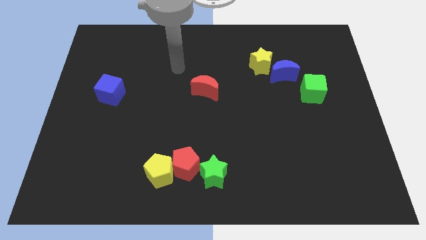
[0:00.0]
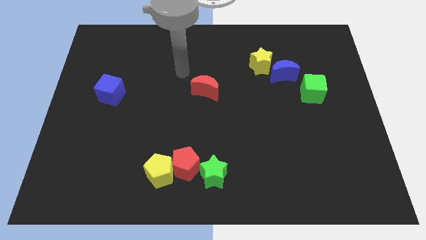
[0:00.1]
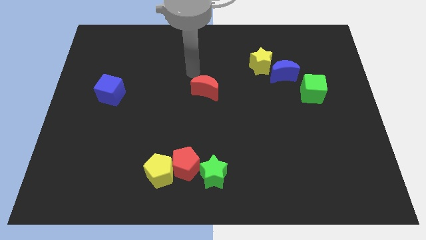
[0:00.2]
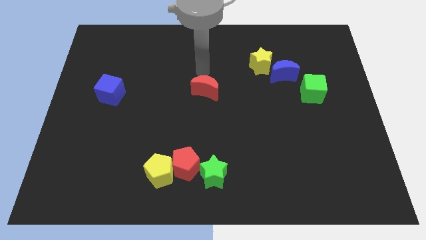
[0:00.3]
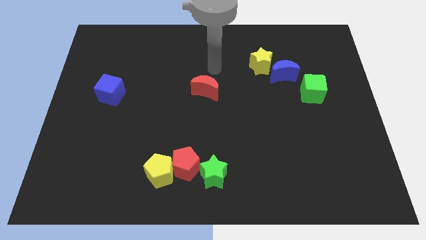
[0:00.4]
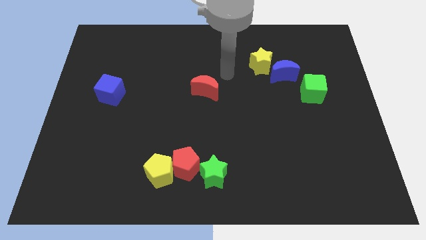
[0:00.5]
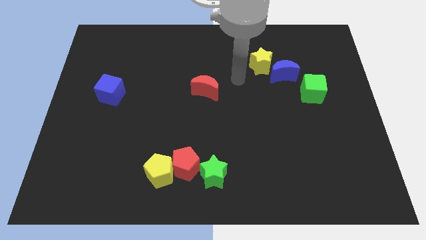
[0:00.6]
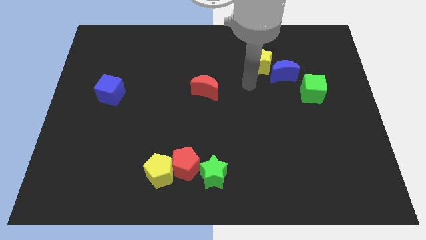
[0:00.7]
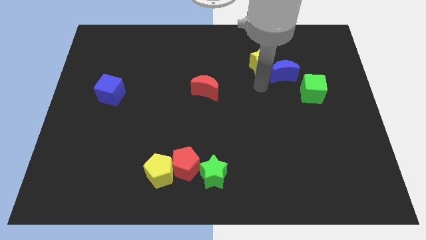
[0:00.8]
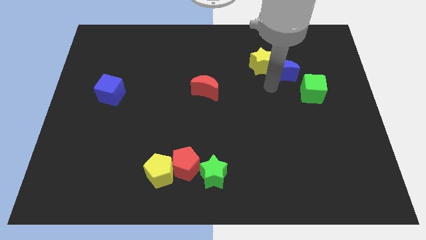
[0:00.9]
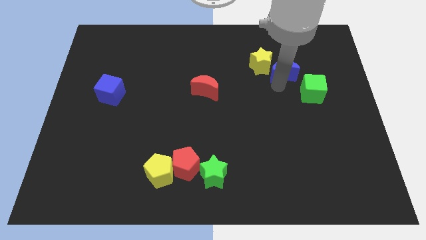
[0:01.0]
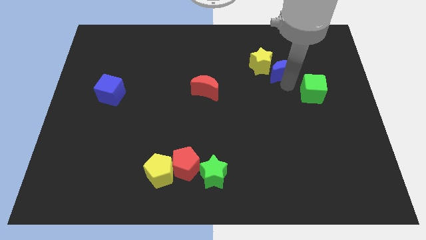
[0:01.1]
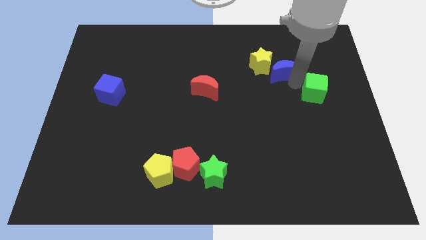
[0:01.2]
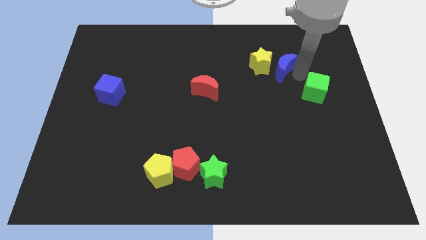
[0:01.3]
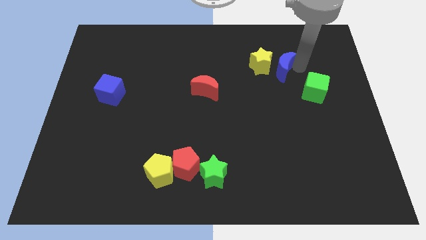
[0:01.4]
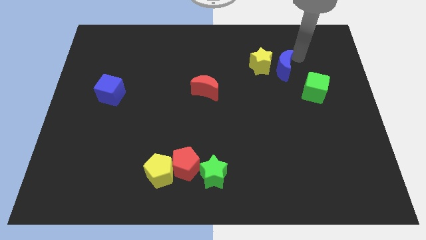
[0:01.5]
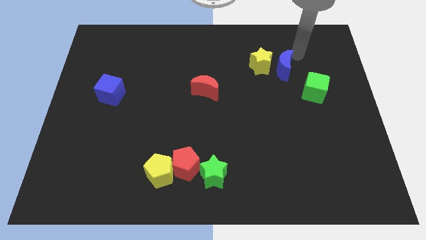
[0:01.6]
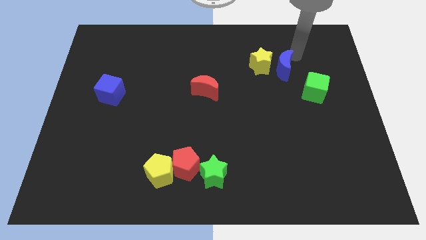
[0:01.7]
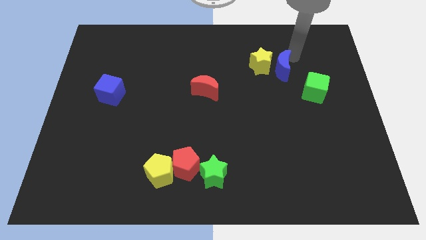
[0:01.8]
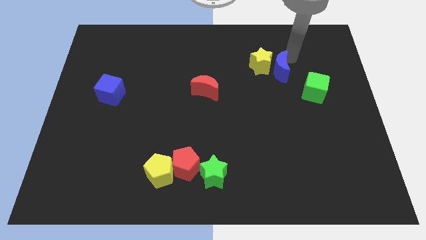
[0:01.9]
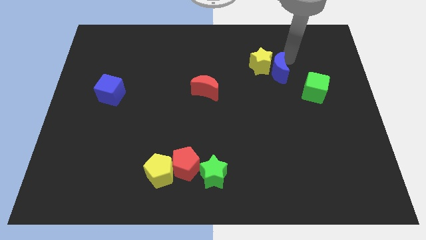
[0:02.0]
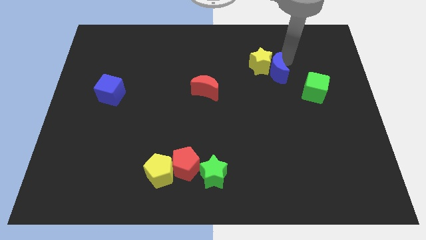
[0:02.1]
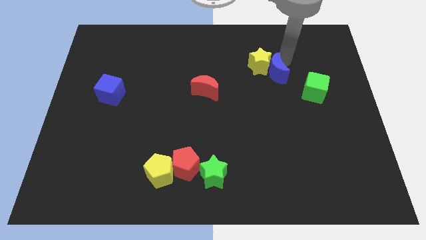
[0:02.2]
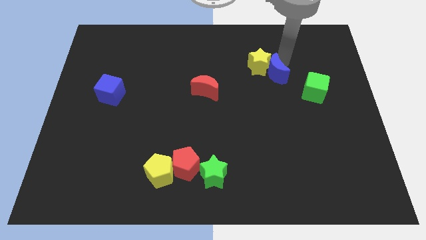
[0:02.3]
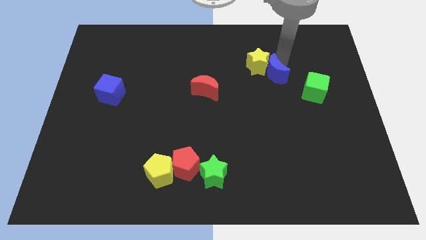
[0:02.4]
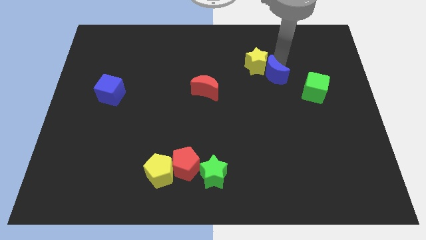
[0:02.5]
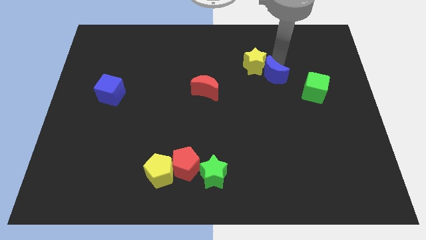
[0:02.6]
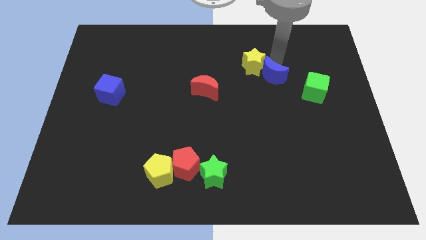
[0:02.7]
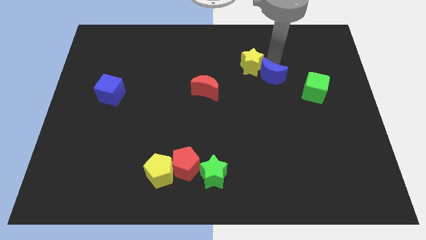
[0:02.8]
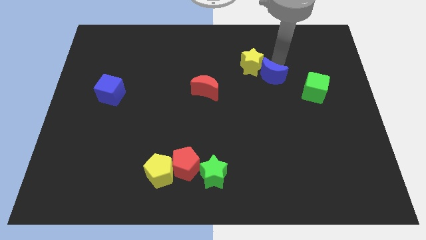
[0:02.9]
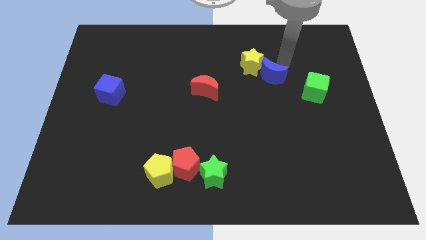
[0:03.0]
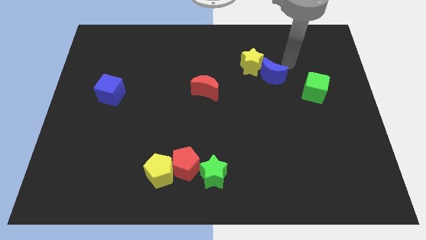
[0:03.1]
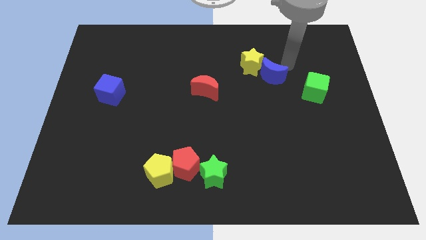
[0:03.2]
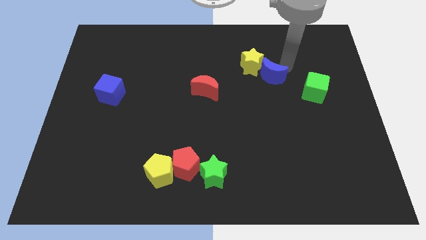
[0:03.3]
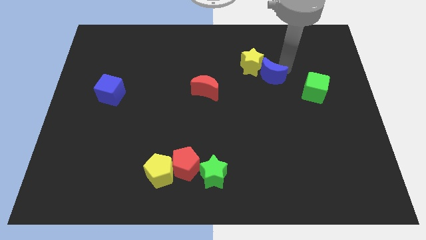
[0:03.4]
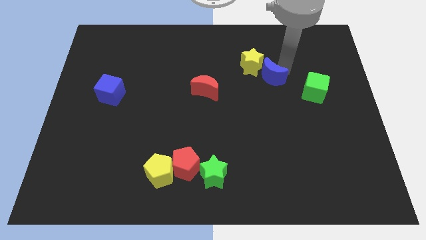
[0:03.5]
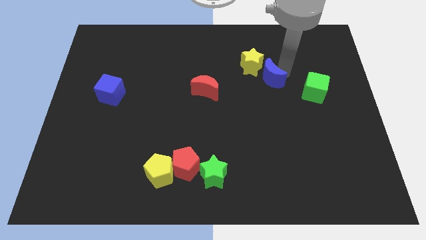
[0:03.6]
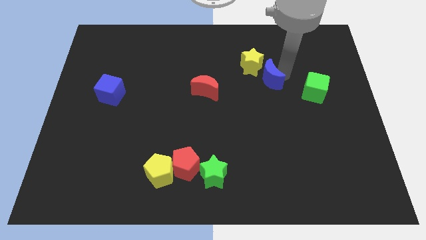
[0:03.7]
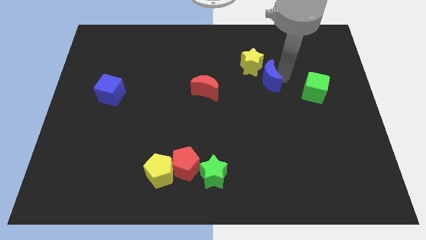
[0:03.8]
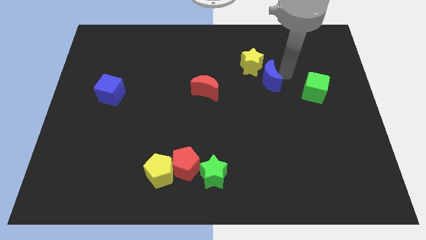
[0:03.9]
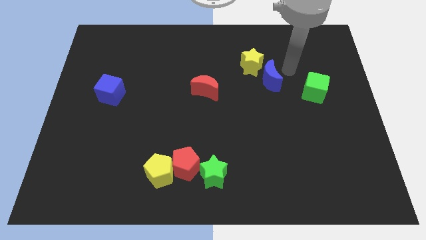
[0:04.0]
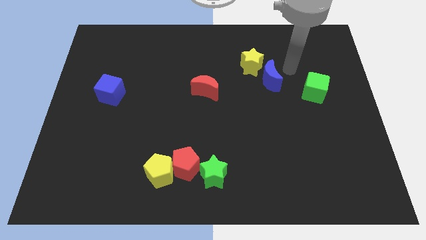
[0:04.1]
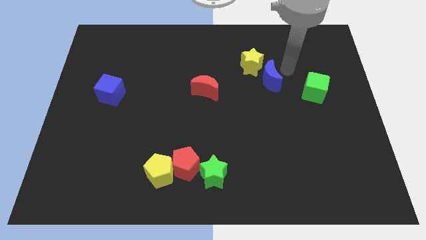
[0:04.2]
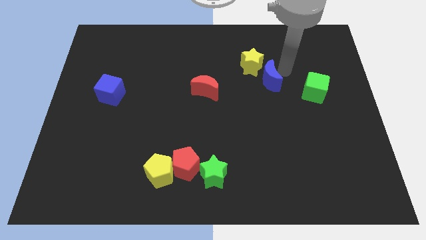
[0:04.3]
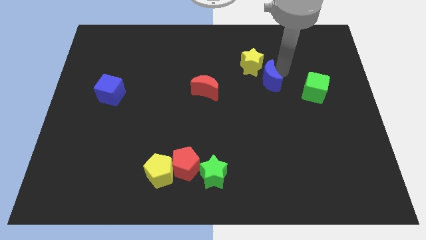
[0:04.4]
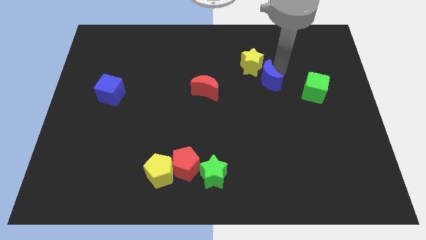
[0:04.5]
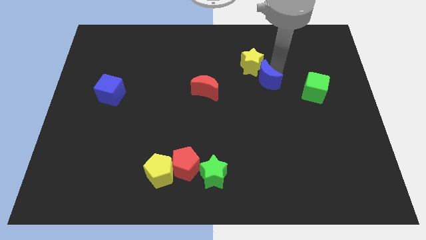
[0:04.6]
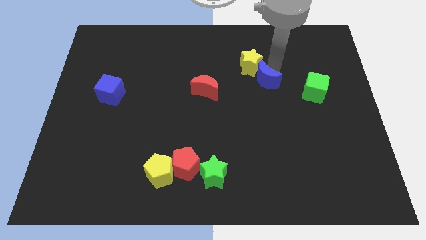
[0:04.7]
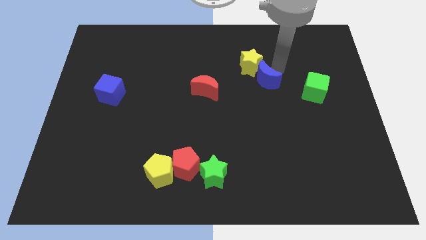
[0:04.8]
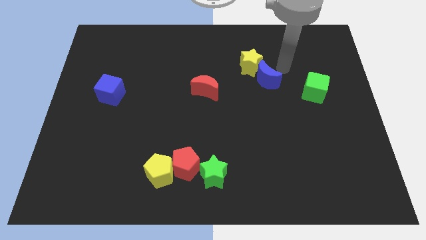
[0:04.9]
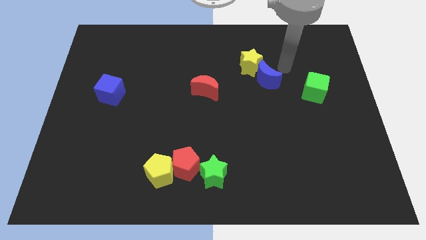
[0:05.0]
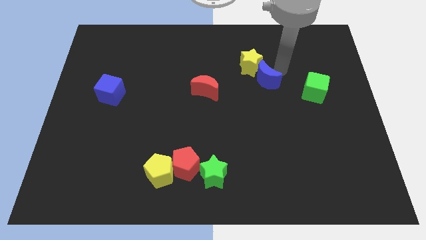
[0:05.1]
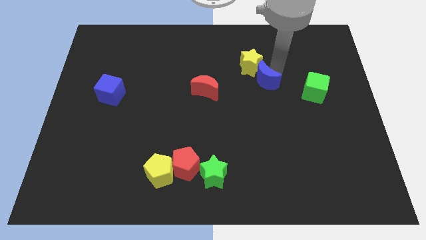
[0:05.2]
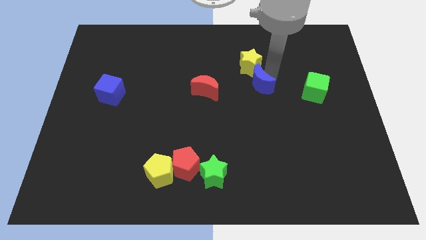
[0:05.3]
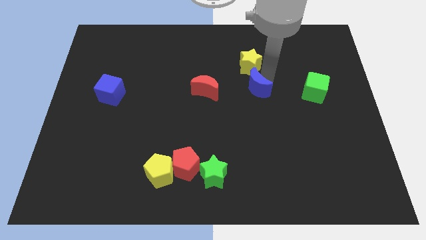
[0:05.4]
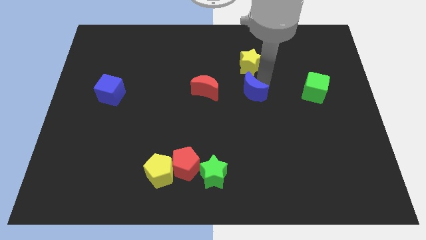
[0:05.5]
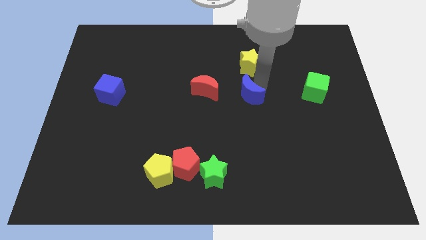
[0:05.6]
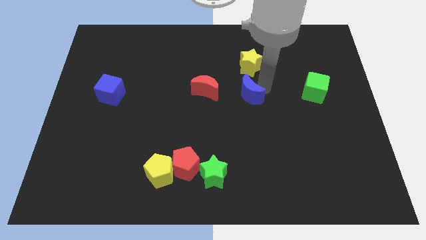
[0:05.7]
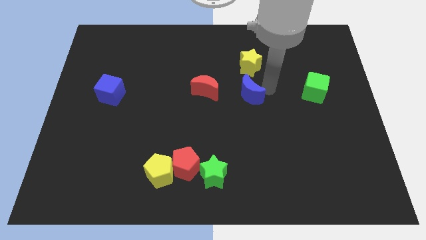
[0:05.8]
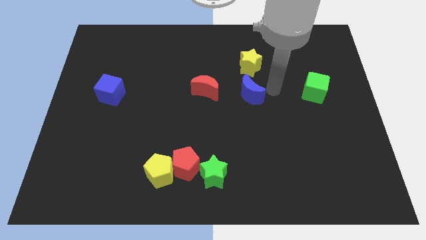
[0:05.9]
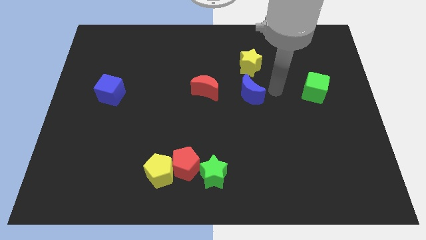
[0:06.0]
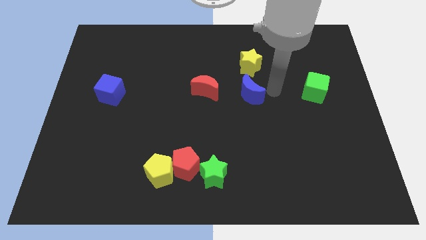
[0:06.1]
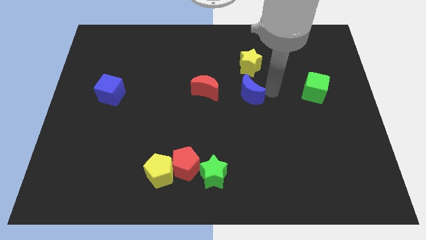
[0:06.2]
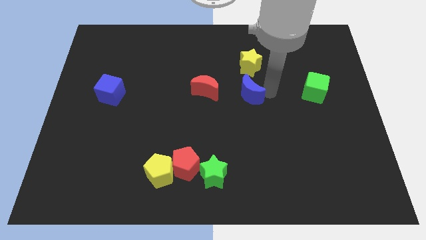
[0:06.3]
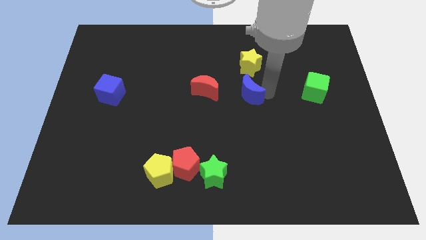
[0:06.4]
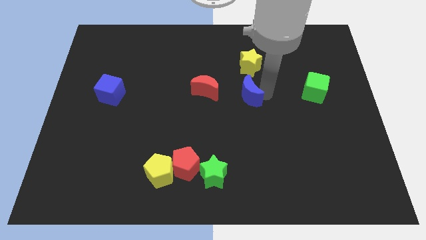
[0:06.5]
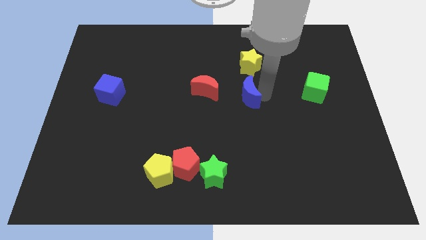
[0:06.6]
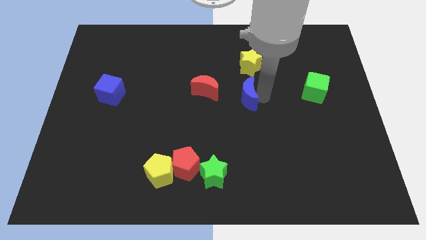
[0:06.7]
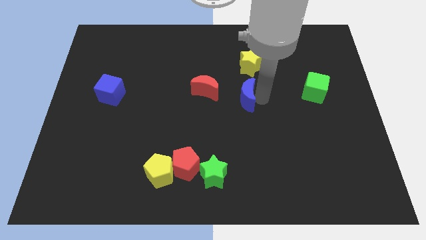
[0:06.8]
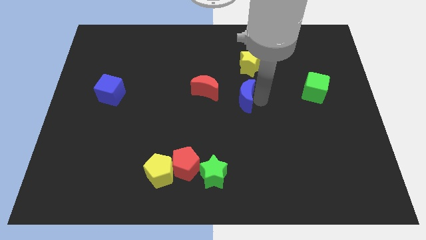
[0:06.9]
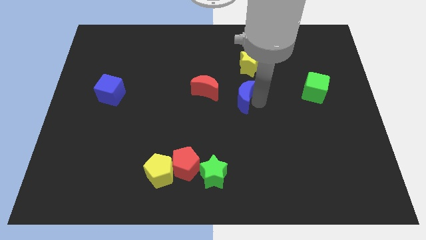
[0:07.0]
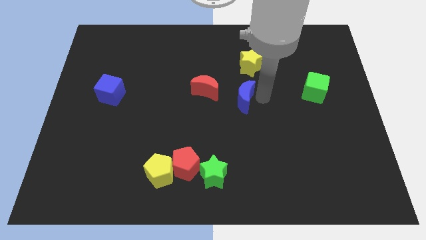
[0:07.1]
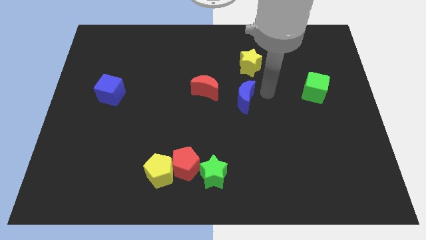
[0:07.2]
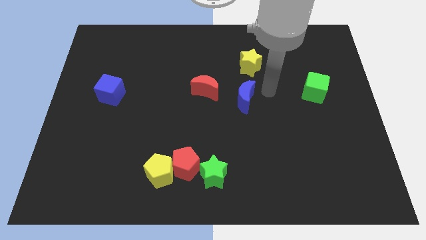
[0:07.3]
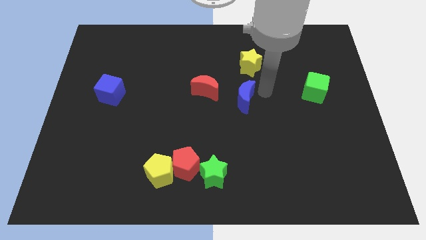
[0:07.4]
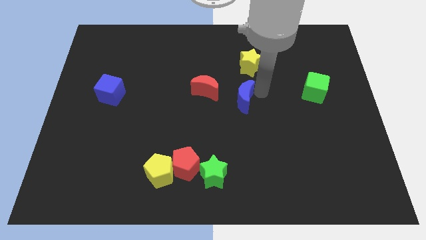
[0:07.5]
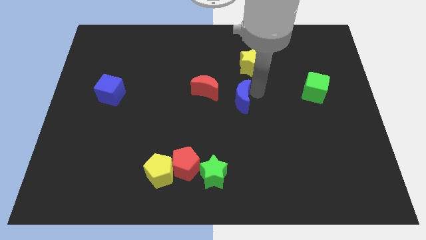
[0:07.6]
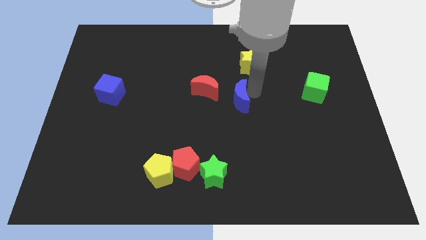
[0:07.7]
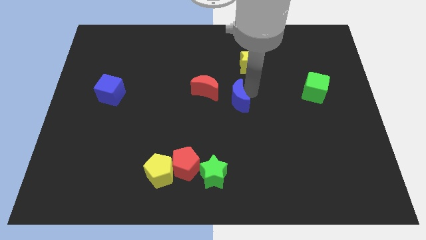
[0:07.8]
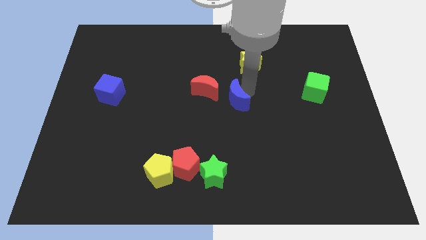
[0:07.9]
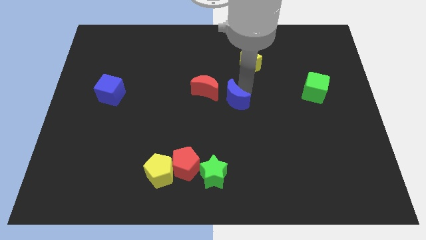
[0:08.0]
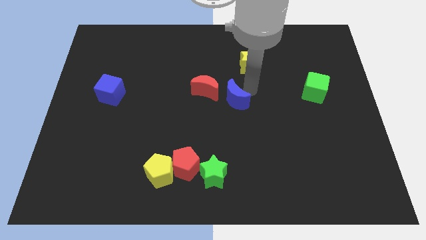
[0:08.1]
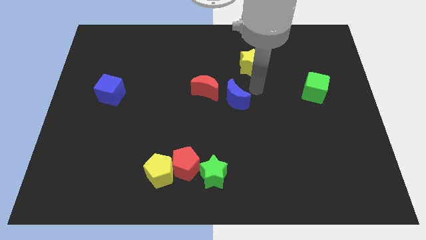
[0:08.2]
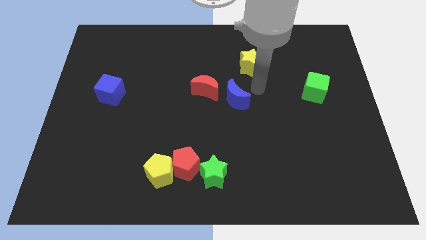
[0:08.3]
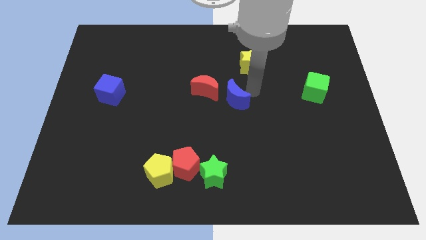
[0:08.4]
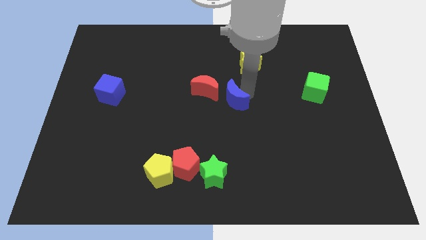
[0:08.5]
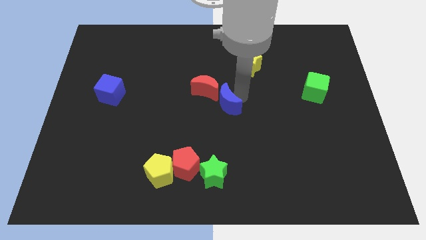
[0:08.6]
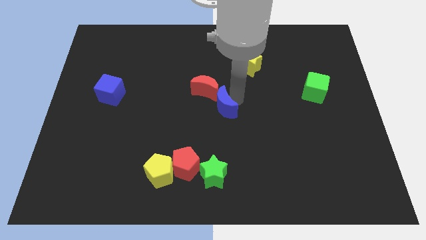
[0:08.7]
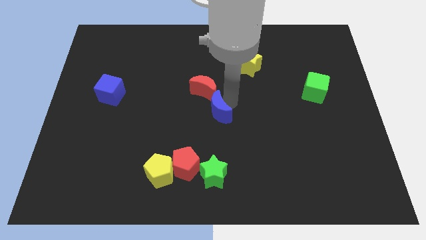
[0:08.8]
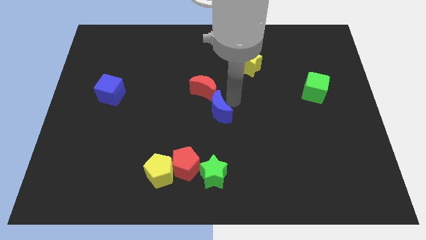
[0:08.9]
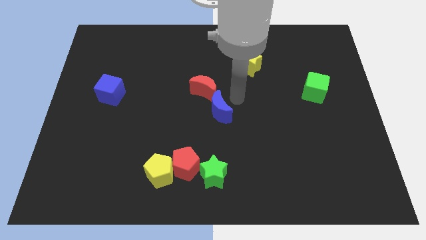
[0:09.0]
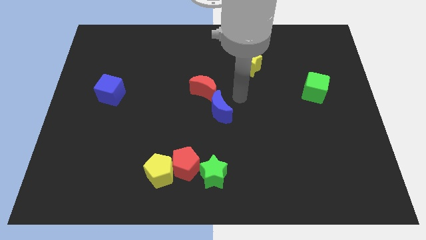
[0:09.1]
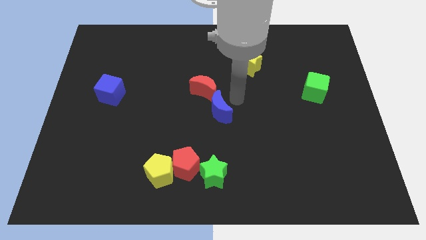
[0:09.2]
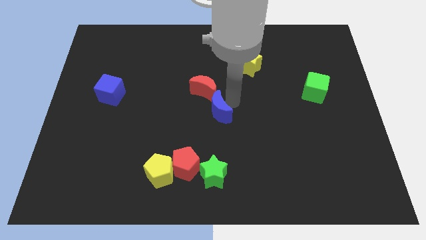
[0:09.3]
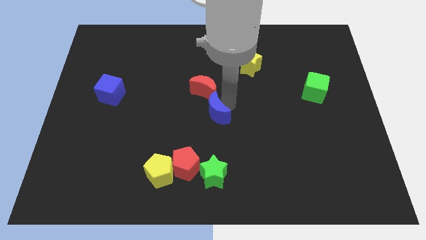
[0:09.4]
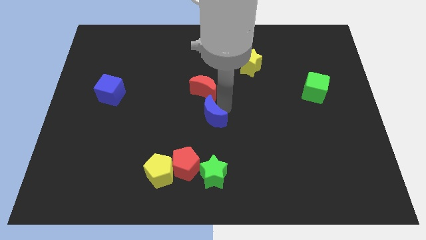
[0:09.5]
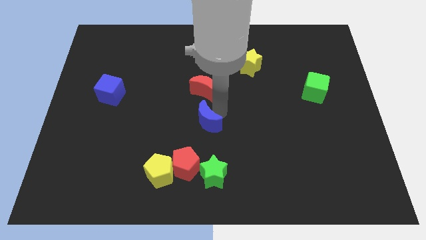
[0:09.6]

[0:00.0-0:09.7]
put the blue moon above the red pentagon
